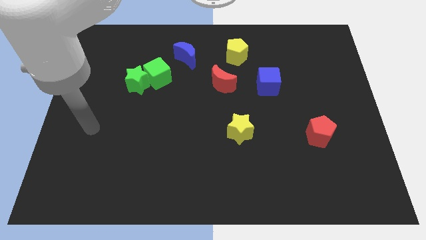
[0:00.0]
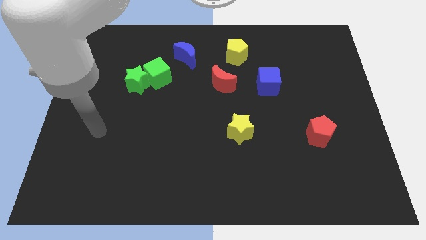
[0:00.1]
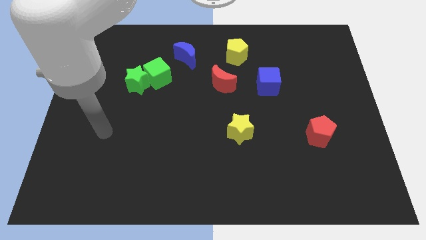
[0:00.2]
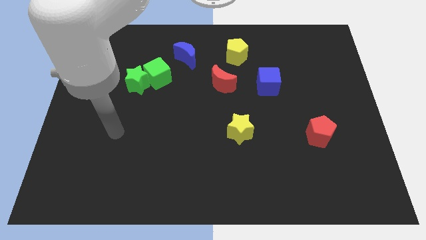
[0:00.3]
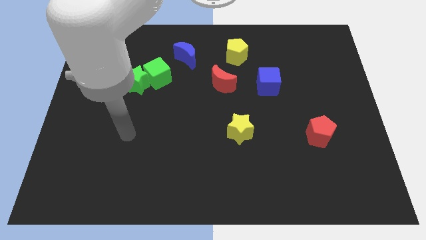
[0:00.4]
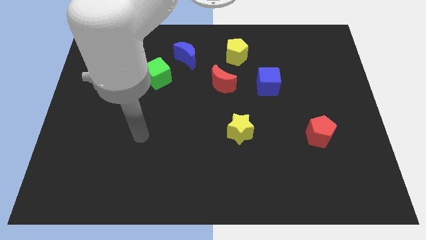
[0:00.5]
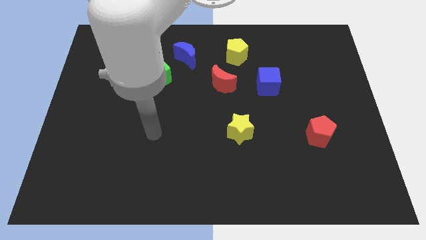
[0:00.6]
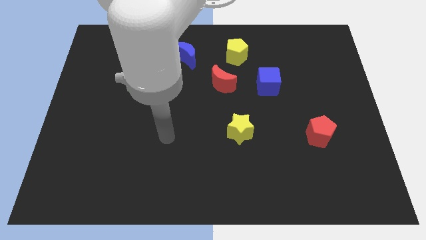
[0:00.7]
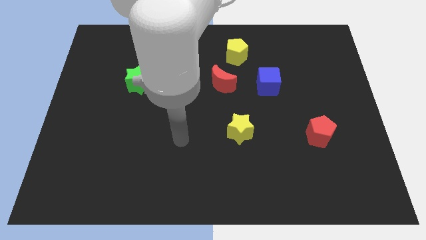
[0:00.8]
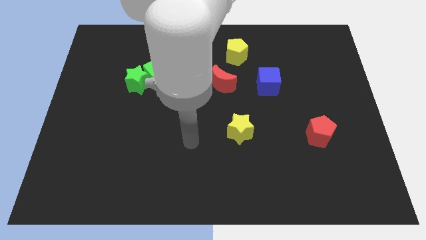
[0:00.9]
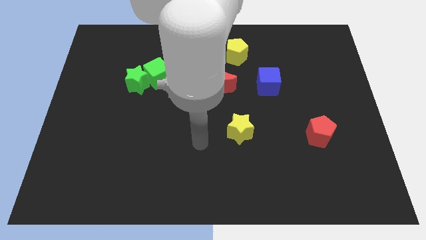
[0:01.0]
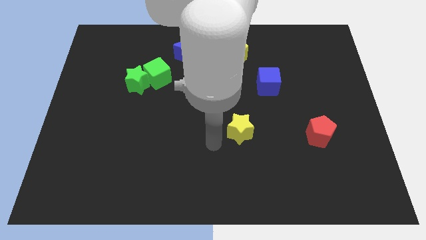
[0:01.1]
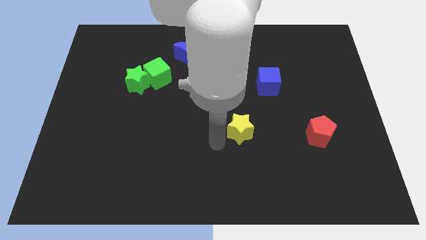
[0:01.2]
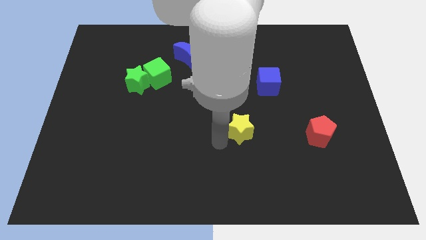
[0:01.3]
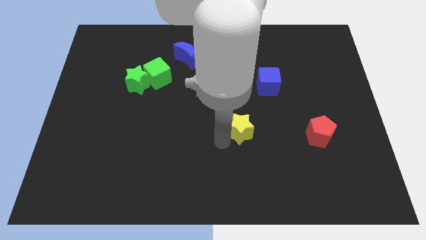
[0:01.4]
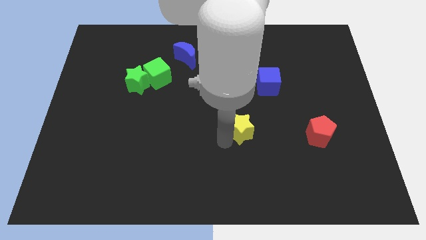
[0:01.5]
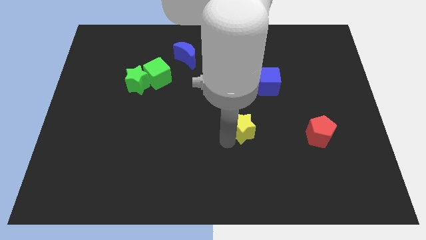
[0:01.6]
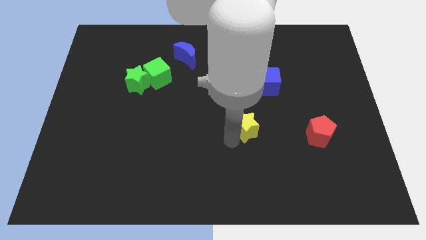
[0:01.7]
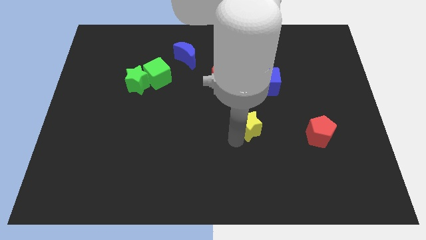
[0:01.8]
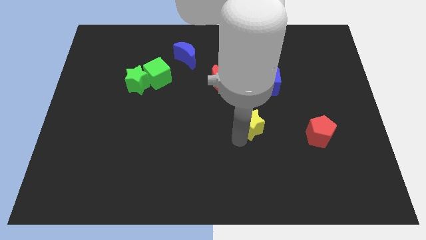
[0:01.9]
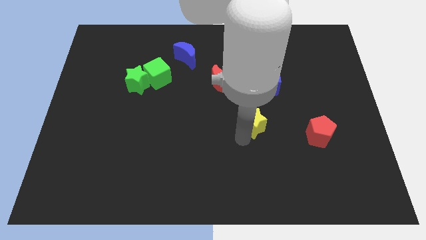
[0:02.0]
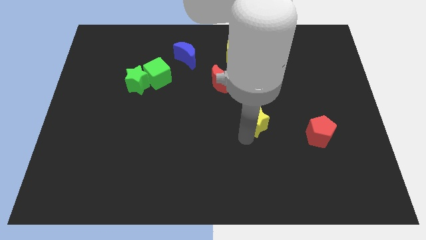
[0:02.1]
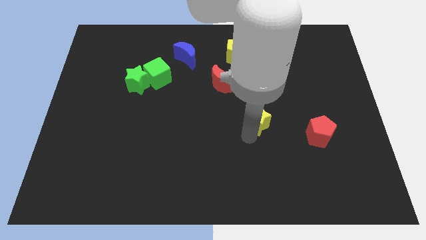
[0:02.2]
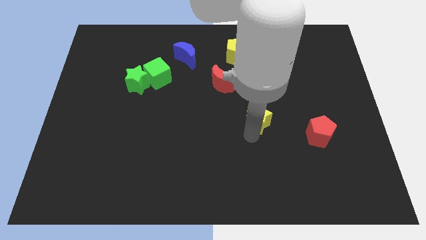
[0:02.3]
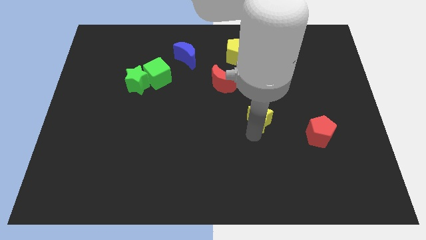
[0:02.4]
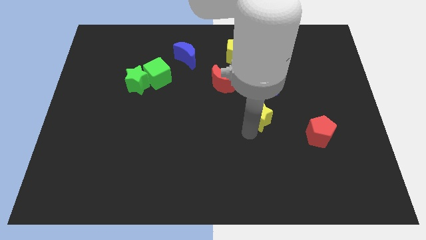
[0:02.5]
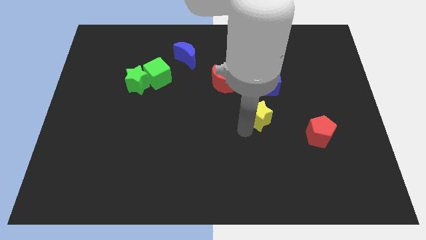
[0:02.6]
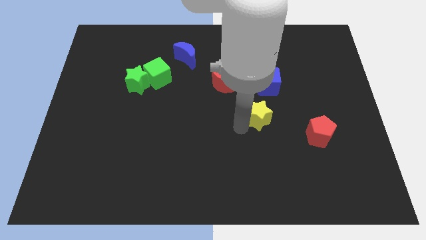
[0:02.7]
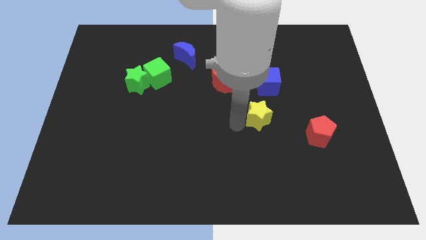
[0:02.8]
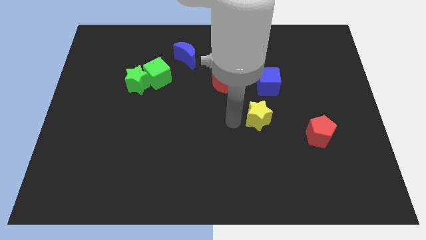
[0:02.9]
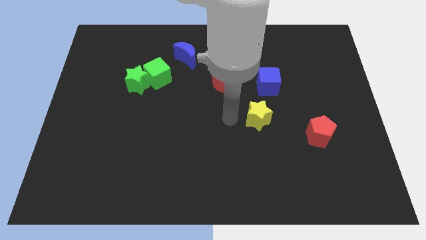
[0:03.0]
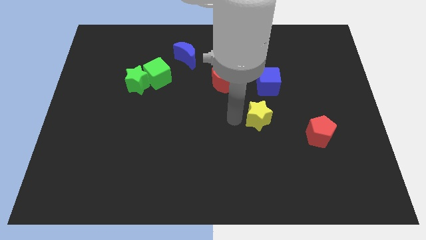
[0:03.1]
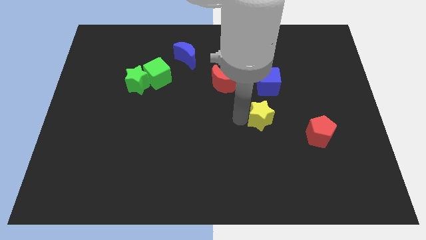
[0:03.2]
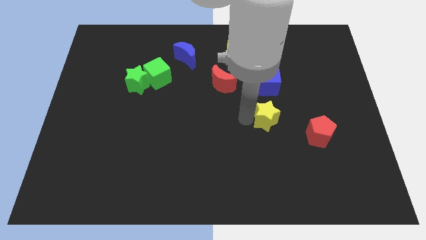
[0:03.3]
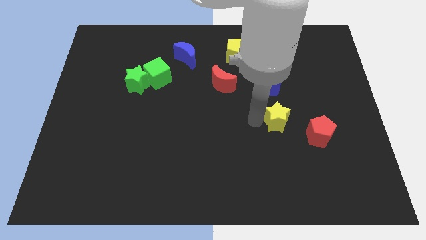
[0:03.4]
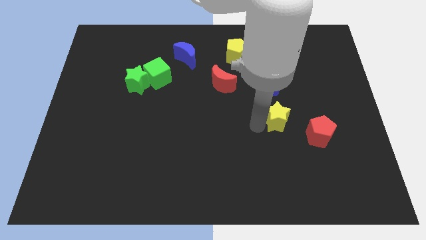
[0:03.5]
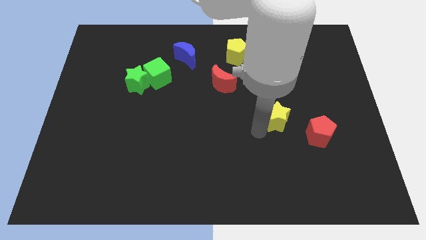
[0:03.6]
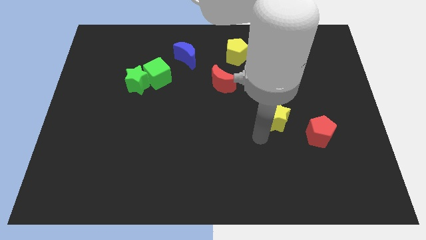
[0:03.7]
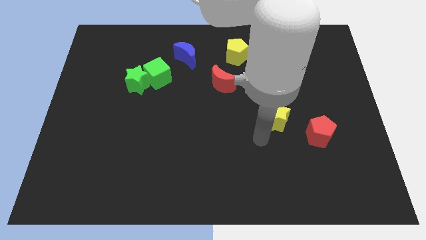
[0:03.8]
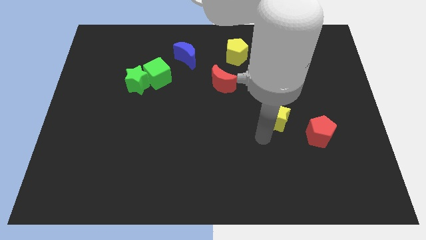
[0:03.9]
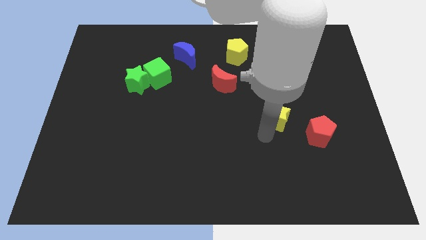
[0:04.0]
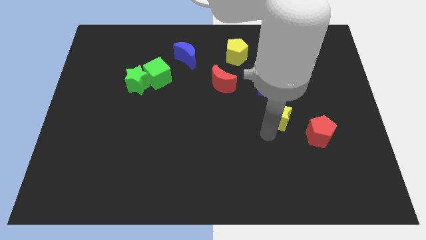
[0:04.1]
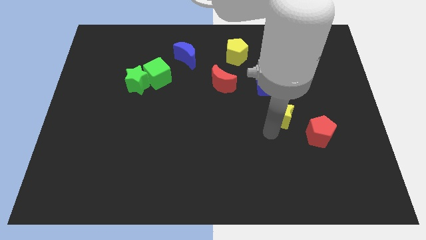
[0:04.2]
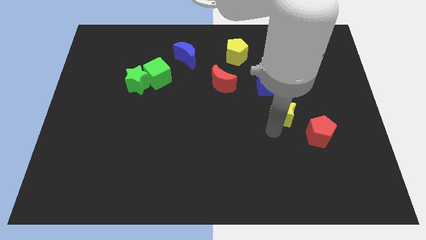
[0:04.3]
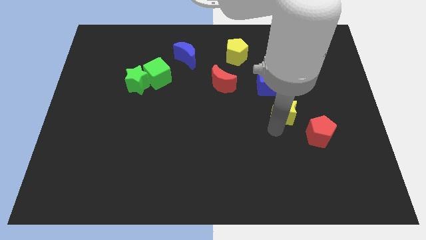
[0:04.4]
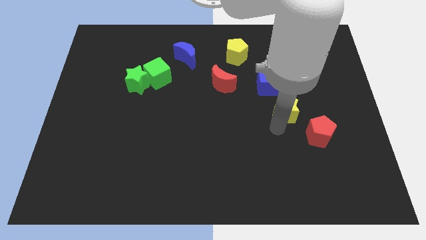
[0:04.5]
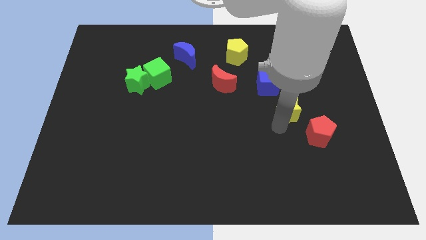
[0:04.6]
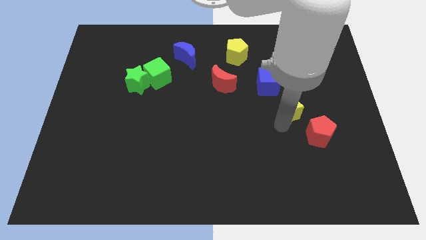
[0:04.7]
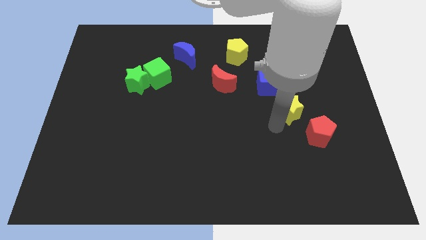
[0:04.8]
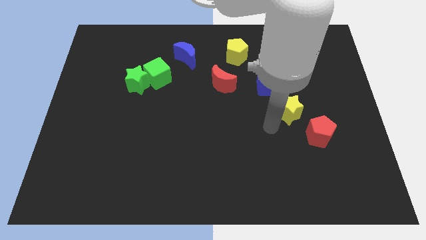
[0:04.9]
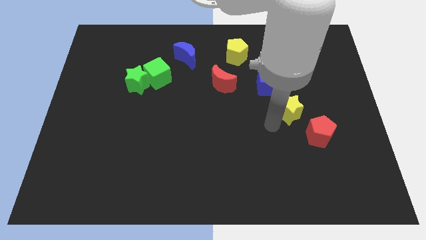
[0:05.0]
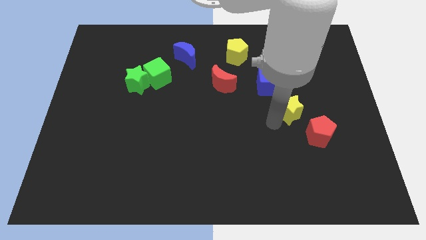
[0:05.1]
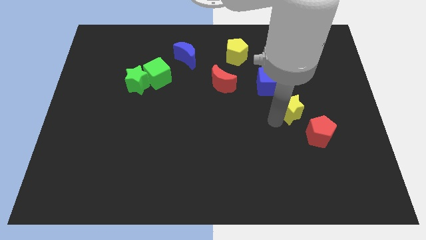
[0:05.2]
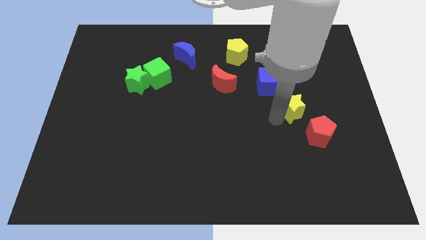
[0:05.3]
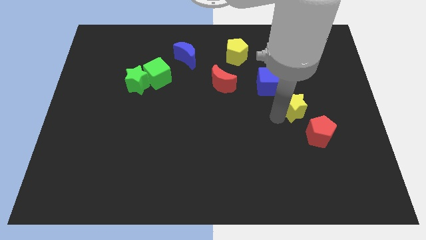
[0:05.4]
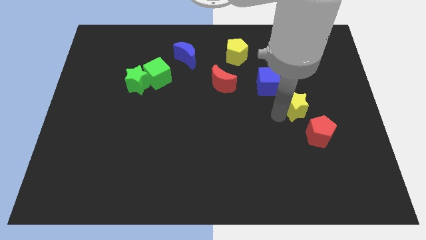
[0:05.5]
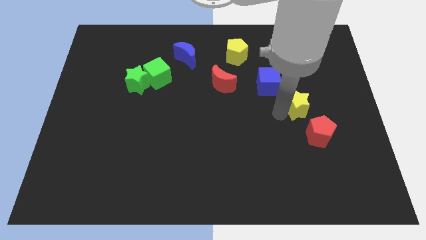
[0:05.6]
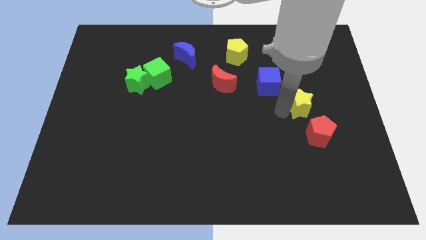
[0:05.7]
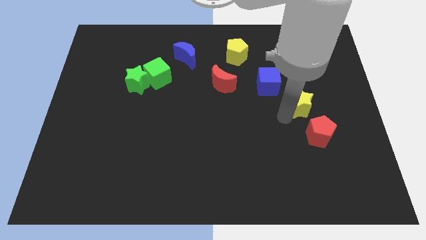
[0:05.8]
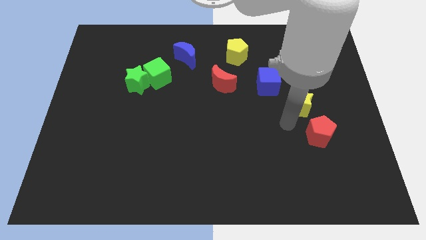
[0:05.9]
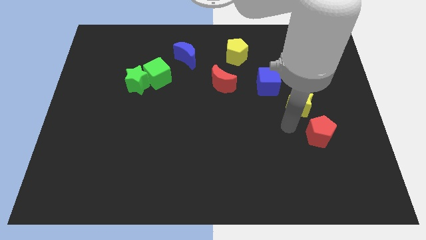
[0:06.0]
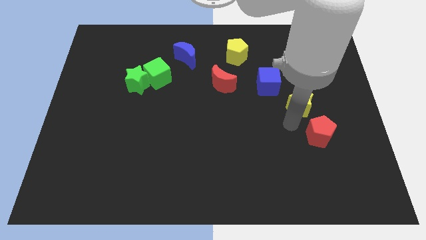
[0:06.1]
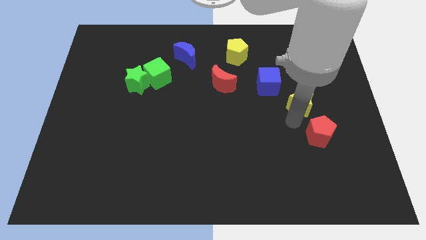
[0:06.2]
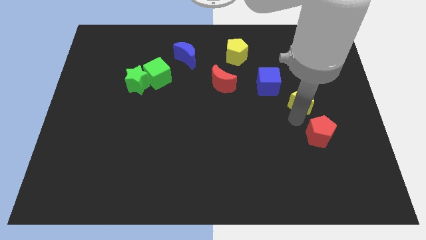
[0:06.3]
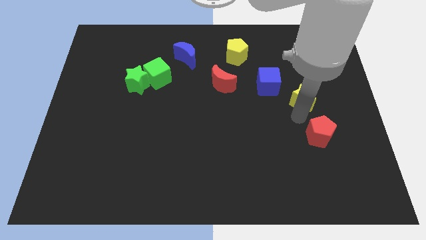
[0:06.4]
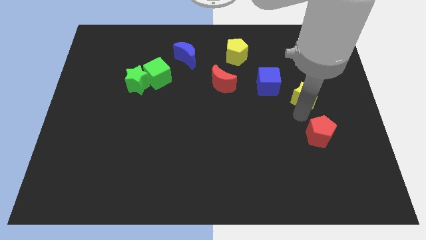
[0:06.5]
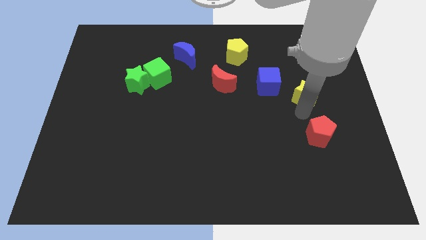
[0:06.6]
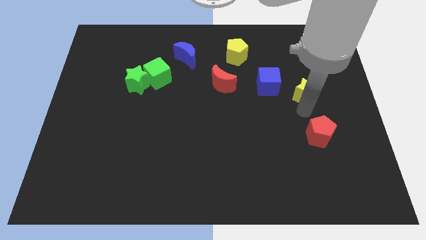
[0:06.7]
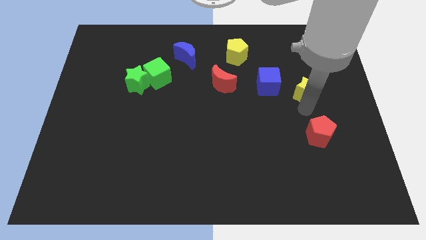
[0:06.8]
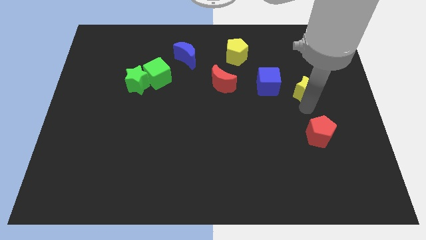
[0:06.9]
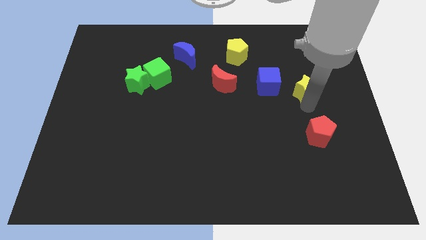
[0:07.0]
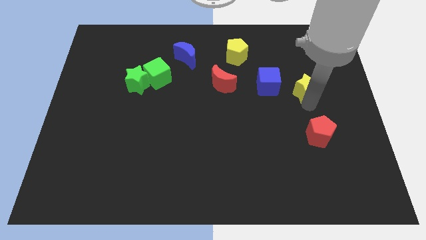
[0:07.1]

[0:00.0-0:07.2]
push the yellow star up and then to the right

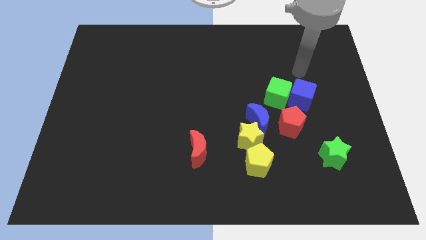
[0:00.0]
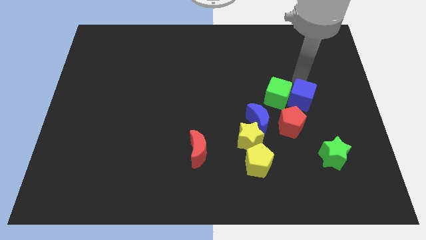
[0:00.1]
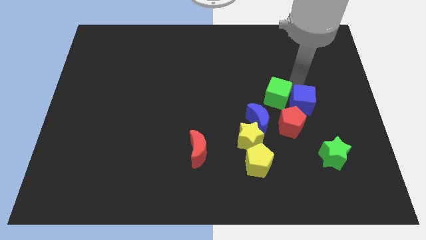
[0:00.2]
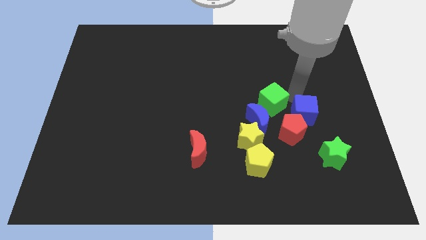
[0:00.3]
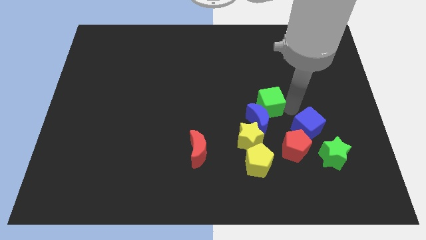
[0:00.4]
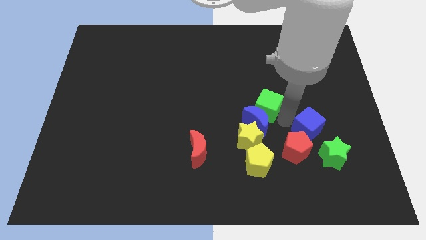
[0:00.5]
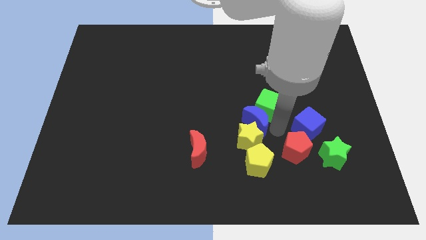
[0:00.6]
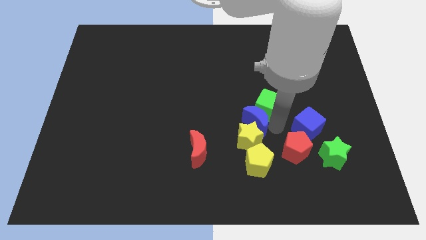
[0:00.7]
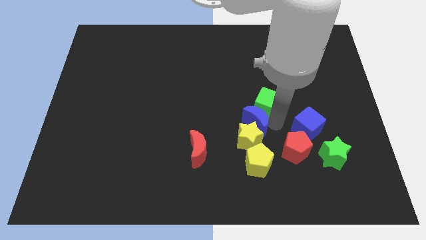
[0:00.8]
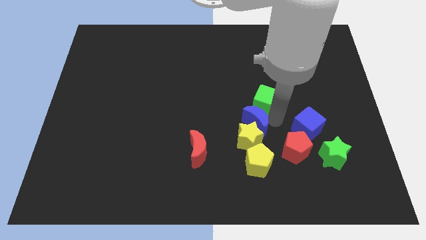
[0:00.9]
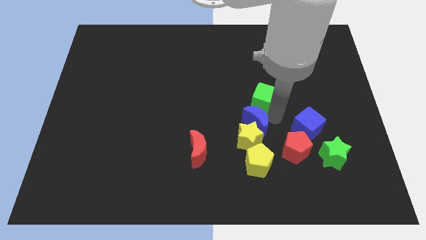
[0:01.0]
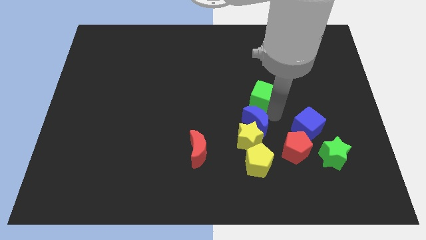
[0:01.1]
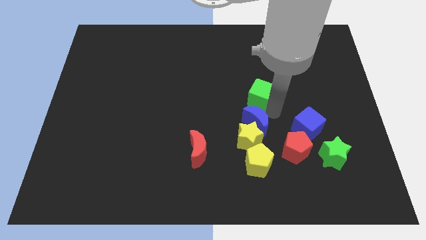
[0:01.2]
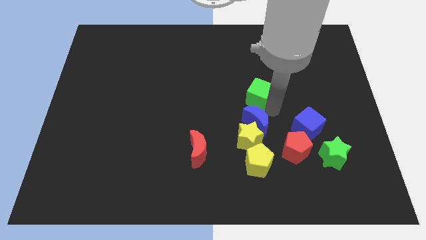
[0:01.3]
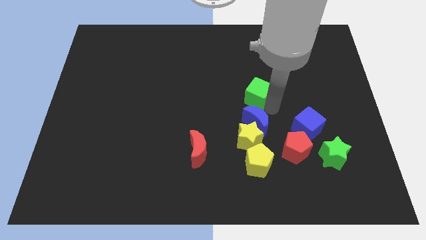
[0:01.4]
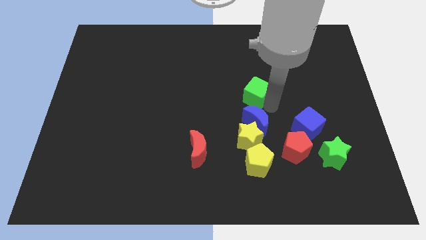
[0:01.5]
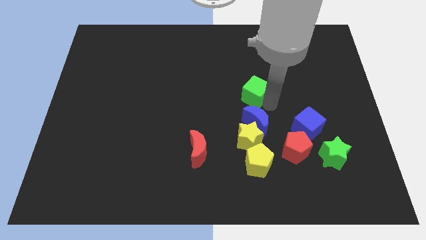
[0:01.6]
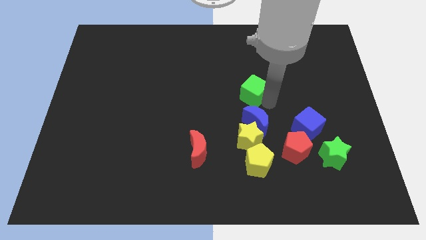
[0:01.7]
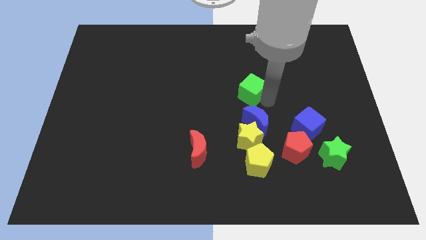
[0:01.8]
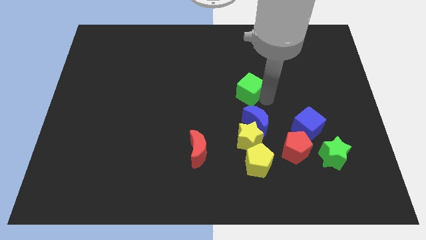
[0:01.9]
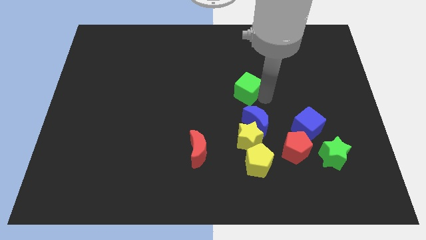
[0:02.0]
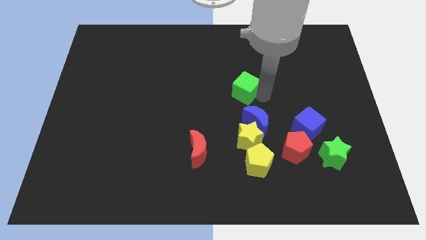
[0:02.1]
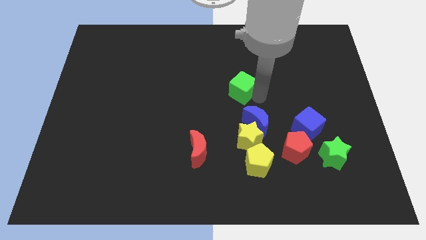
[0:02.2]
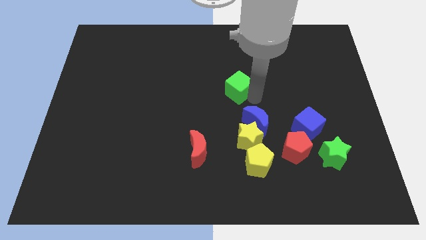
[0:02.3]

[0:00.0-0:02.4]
slide the green cube a little bit up and to the left diagonally
